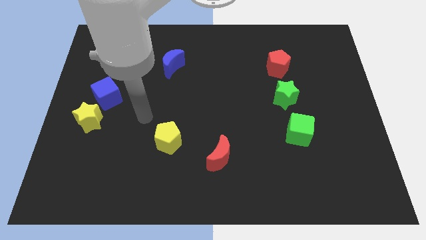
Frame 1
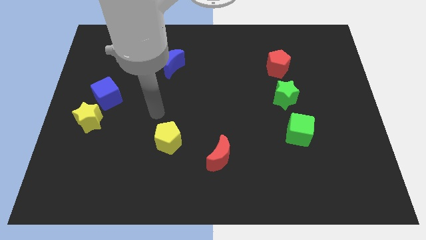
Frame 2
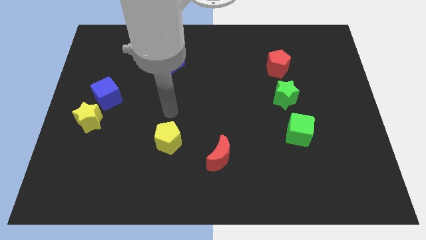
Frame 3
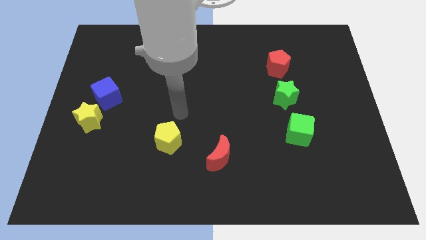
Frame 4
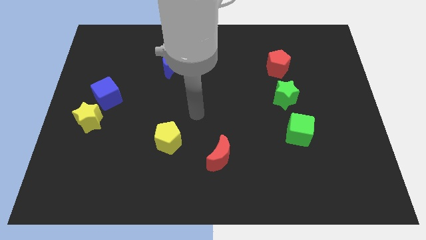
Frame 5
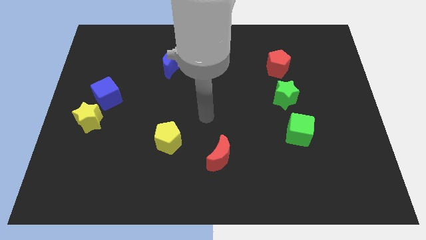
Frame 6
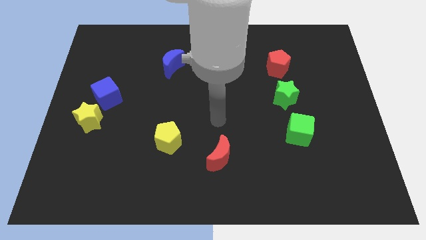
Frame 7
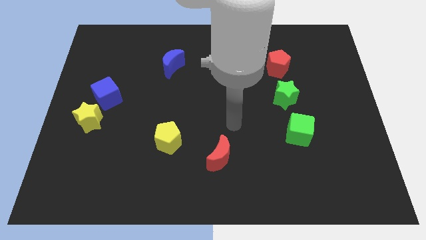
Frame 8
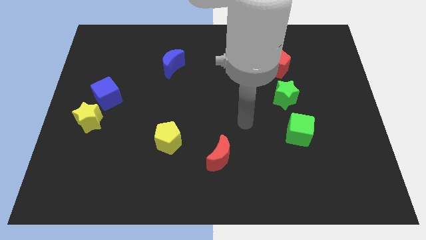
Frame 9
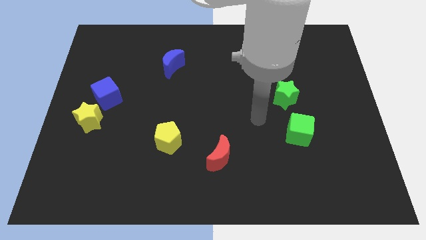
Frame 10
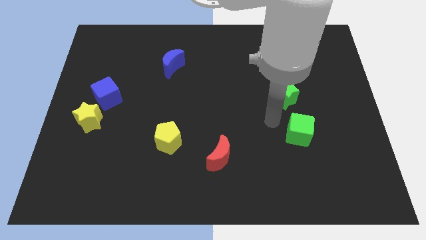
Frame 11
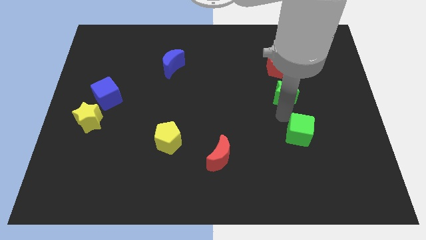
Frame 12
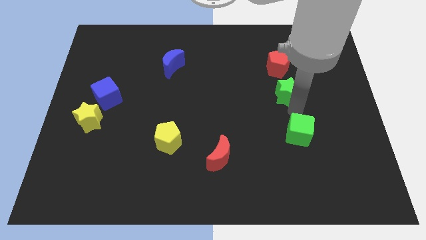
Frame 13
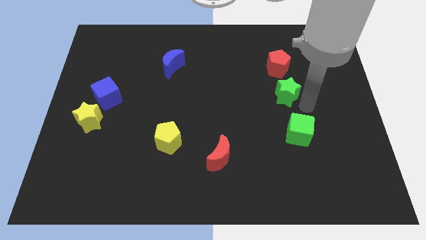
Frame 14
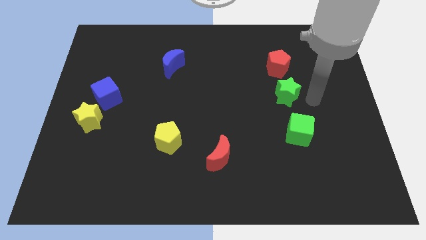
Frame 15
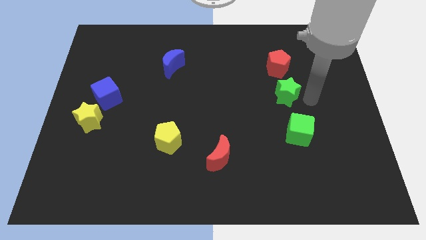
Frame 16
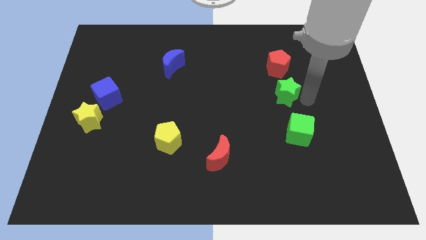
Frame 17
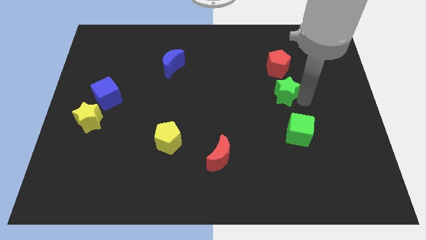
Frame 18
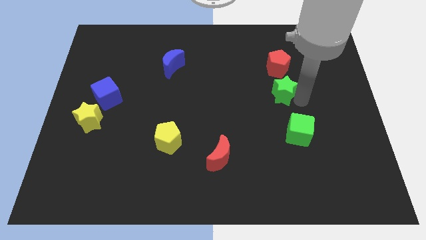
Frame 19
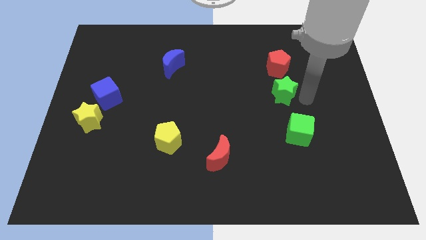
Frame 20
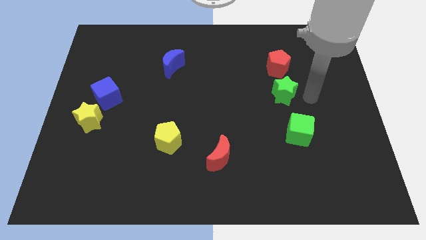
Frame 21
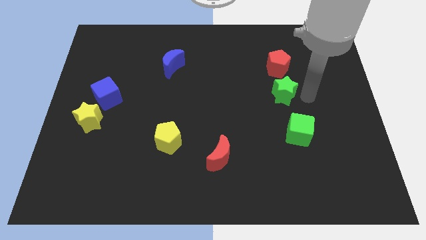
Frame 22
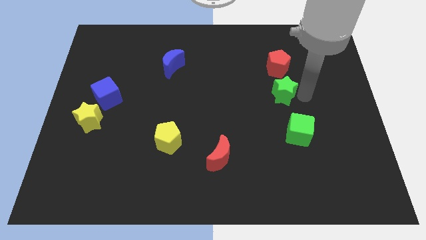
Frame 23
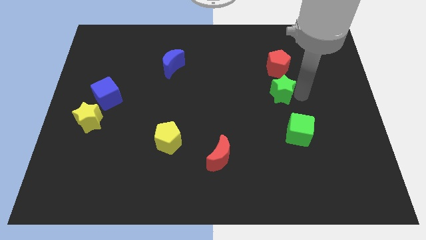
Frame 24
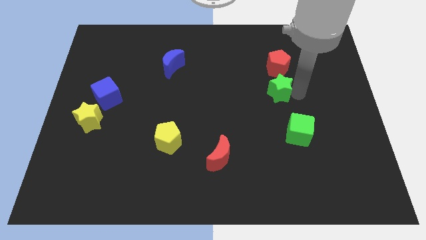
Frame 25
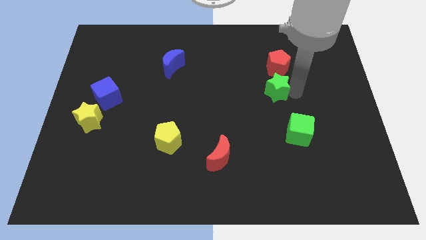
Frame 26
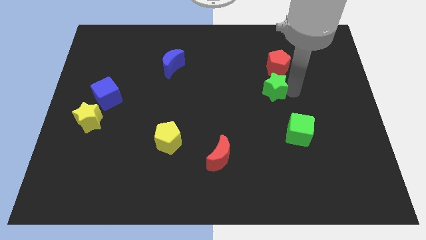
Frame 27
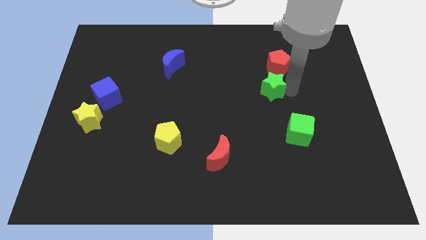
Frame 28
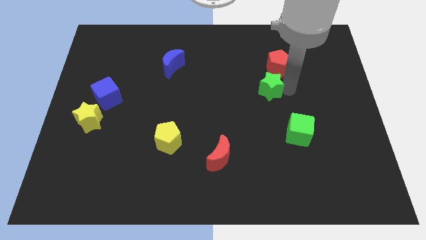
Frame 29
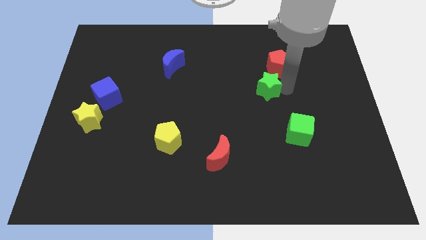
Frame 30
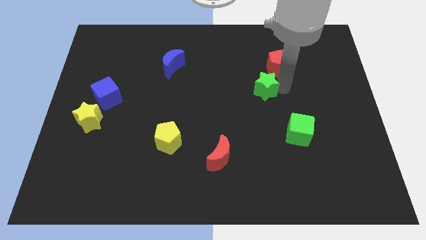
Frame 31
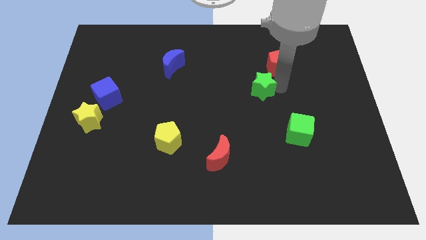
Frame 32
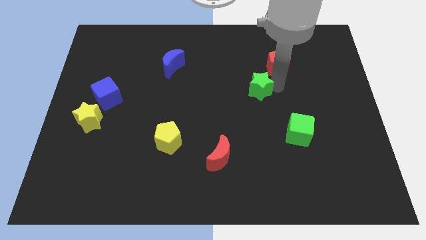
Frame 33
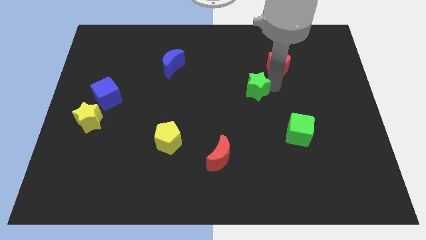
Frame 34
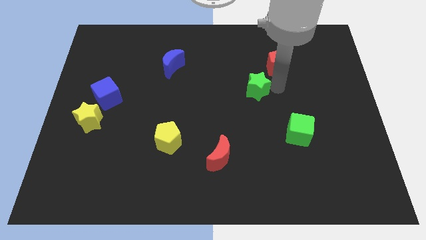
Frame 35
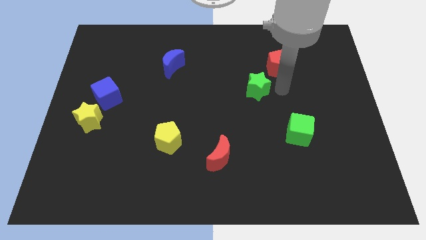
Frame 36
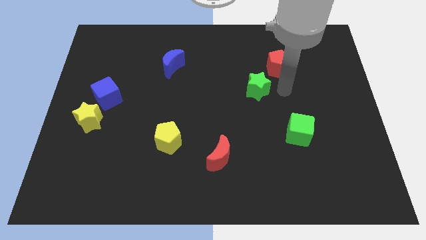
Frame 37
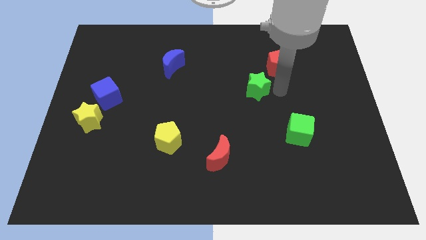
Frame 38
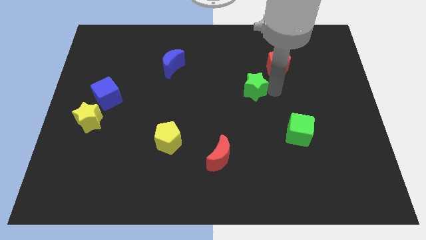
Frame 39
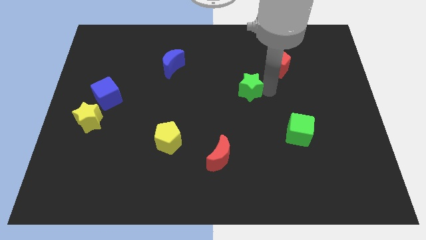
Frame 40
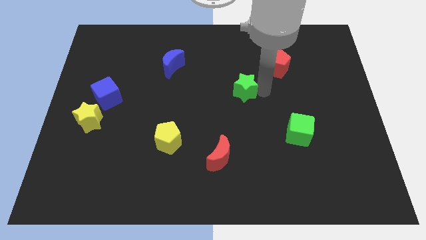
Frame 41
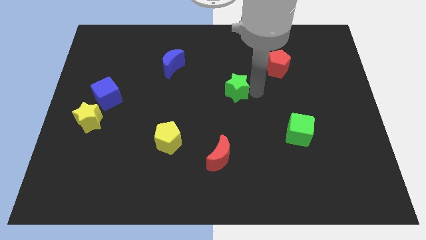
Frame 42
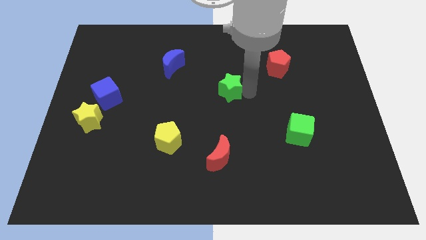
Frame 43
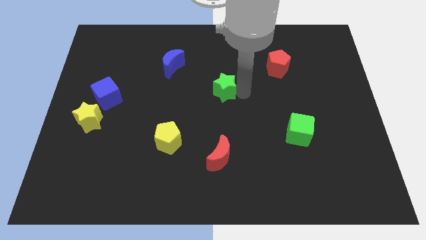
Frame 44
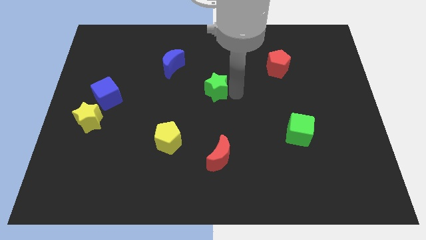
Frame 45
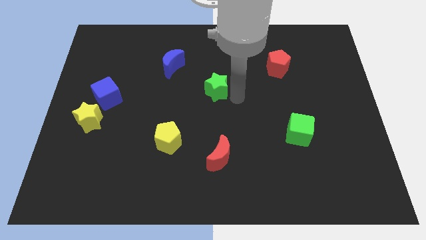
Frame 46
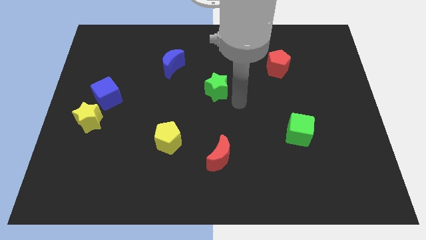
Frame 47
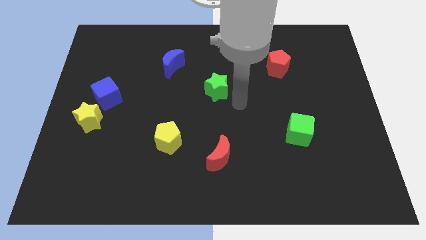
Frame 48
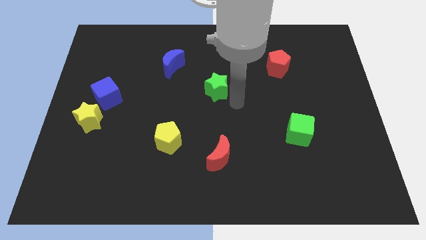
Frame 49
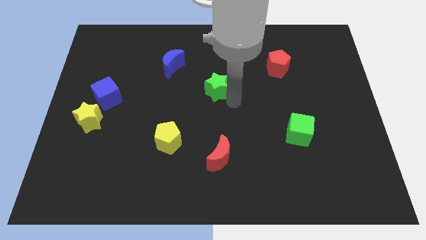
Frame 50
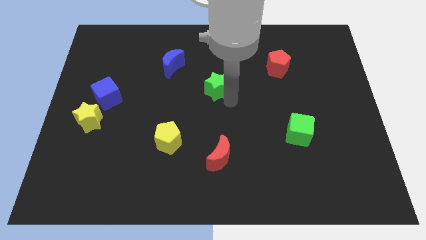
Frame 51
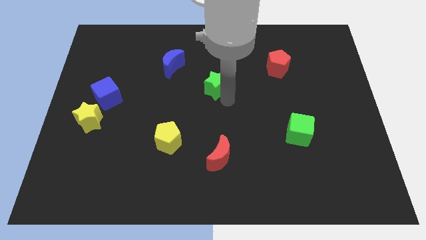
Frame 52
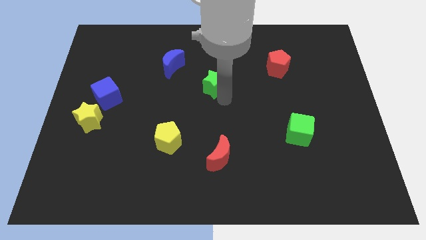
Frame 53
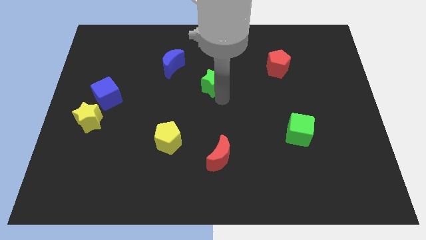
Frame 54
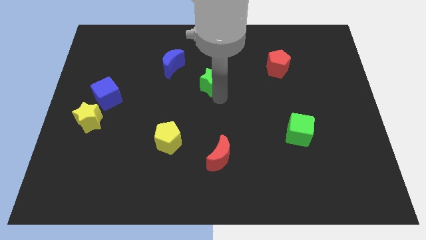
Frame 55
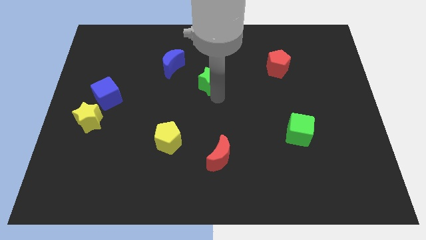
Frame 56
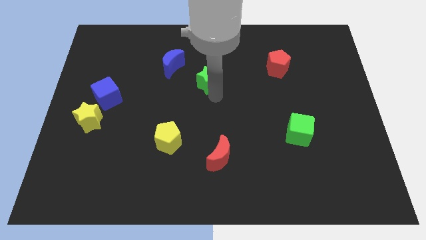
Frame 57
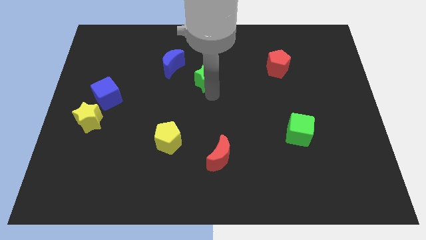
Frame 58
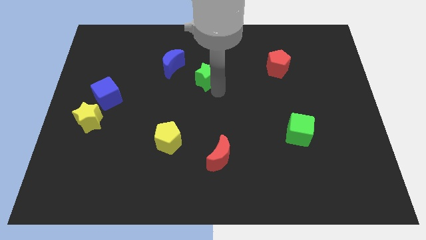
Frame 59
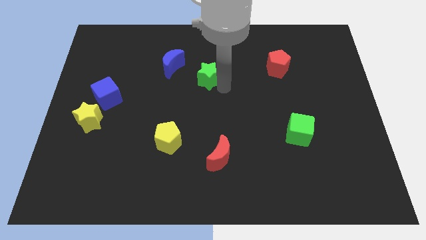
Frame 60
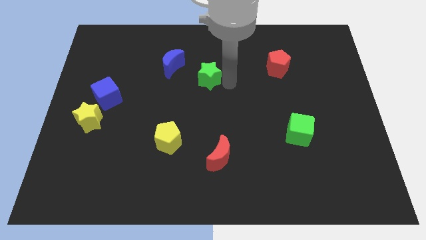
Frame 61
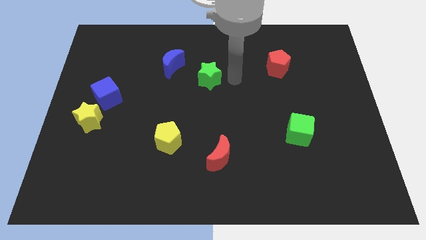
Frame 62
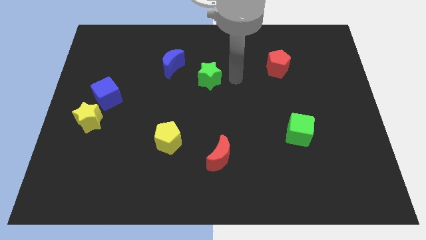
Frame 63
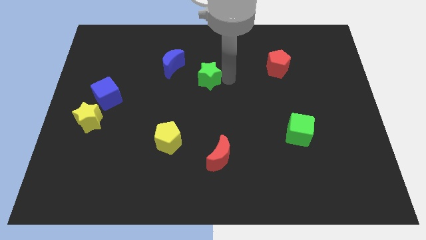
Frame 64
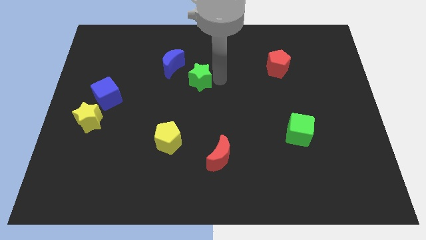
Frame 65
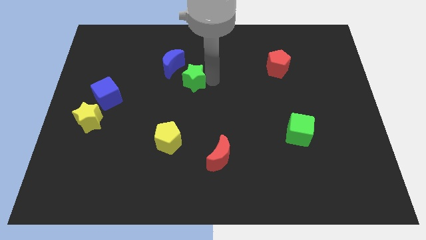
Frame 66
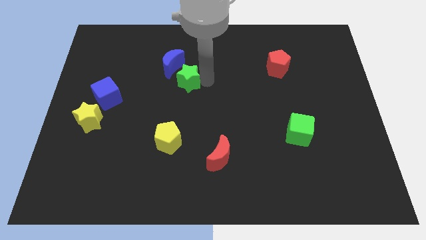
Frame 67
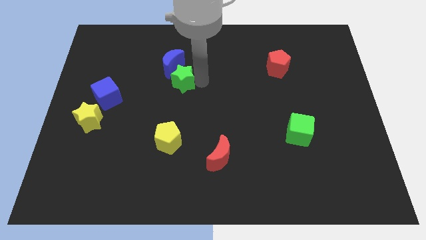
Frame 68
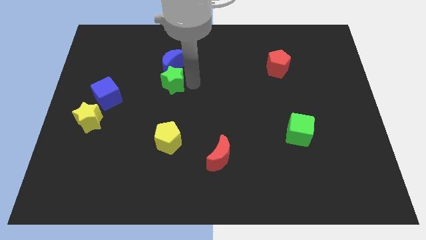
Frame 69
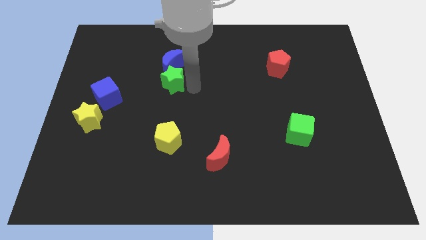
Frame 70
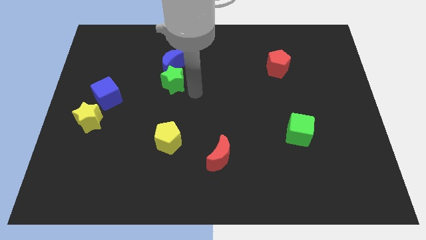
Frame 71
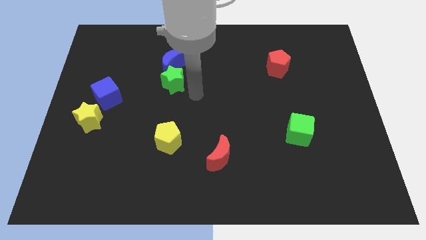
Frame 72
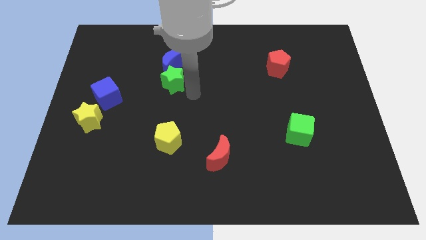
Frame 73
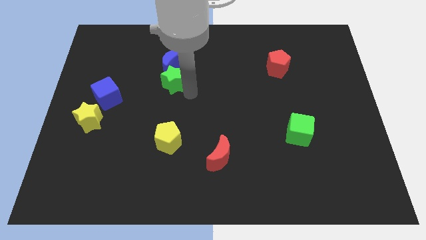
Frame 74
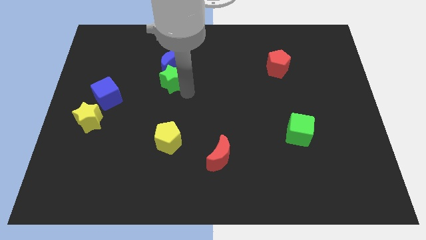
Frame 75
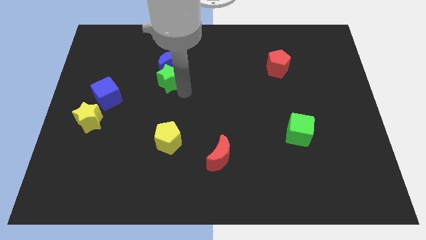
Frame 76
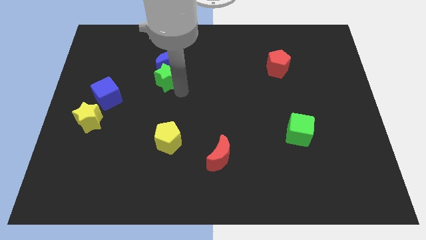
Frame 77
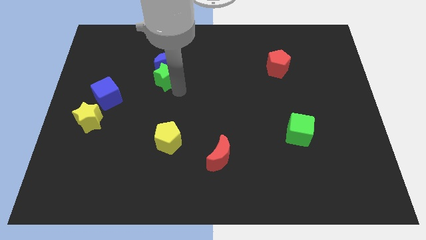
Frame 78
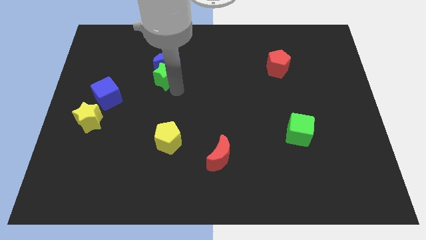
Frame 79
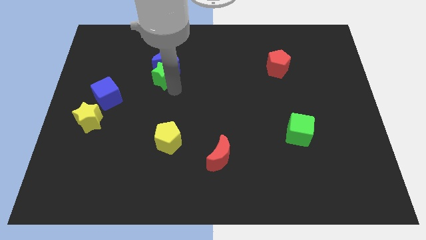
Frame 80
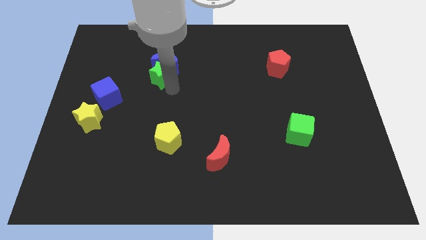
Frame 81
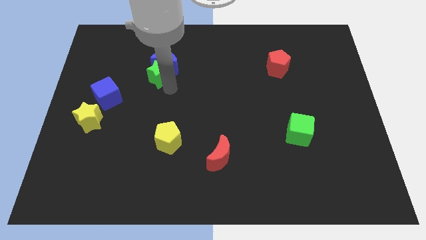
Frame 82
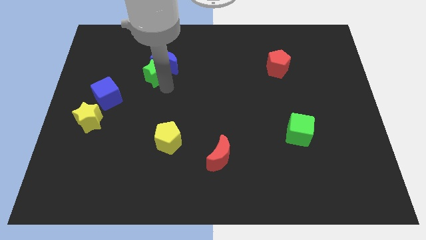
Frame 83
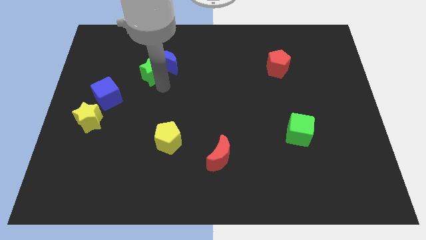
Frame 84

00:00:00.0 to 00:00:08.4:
put the green star to the left of the blue moon

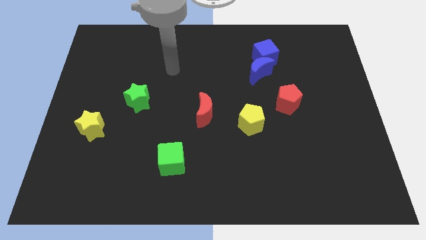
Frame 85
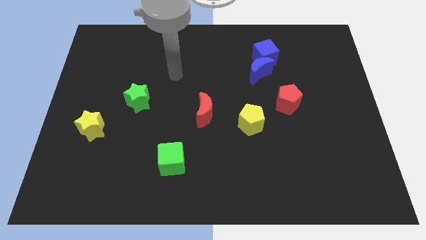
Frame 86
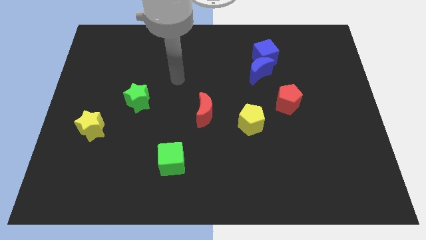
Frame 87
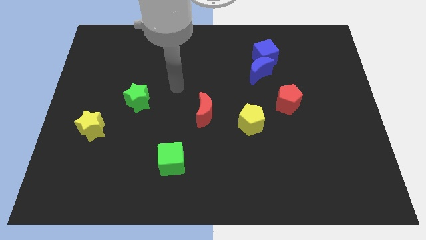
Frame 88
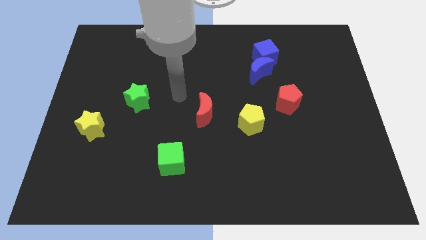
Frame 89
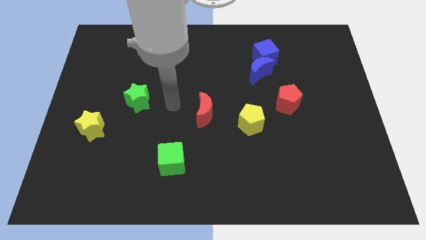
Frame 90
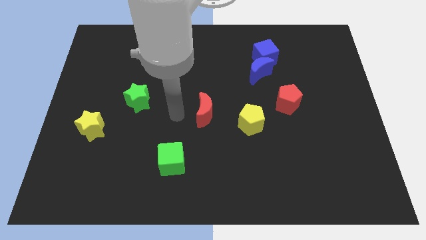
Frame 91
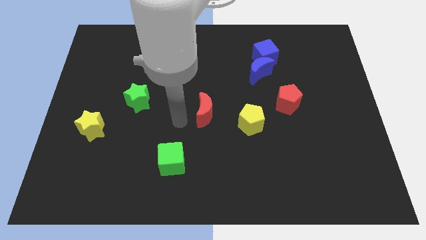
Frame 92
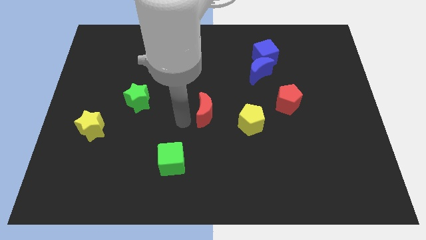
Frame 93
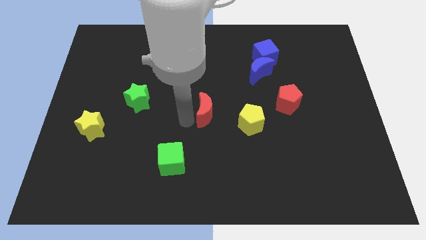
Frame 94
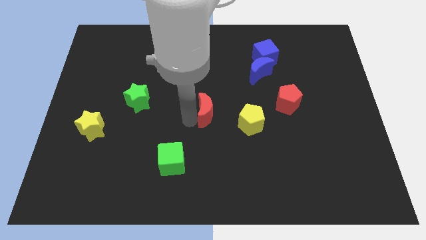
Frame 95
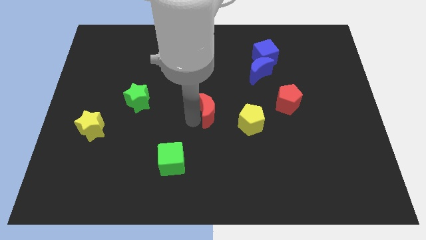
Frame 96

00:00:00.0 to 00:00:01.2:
move the red moon to the top left of the yellow pentagon
